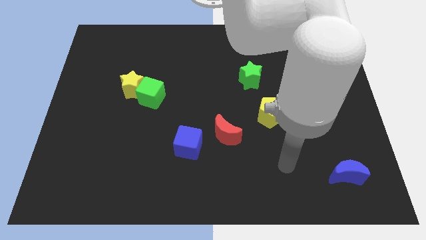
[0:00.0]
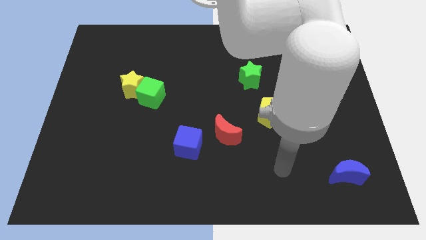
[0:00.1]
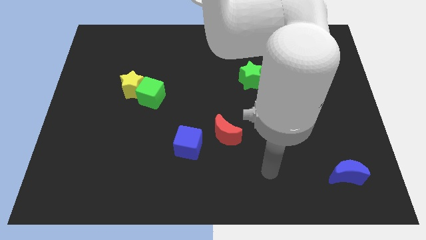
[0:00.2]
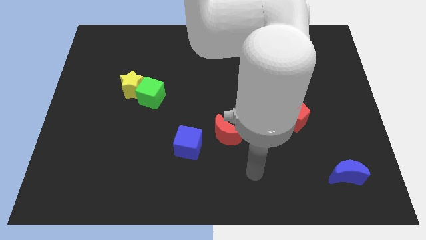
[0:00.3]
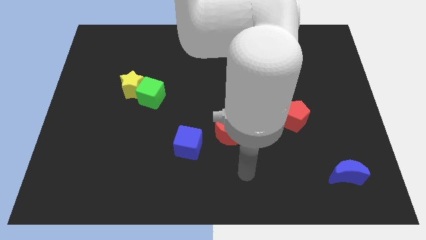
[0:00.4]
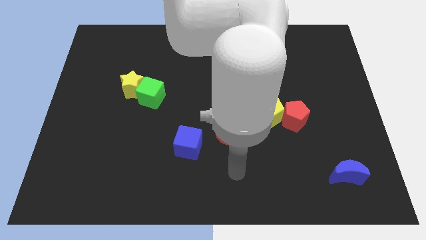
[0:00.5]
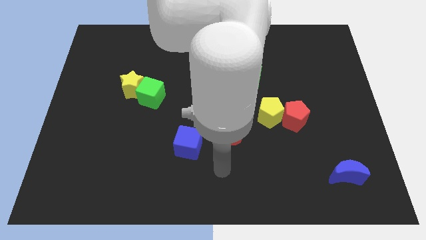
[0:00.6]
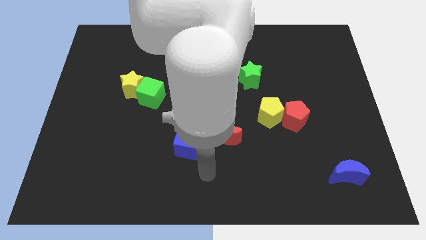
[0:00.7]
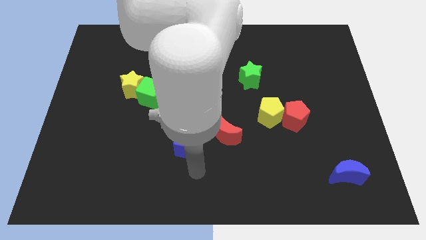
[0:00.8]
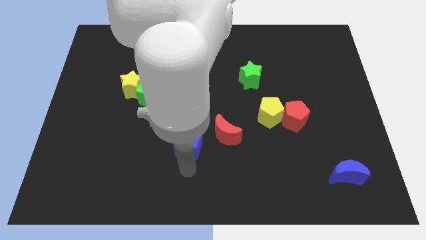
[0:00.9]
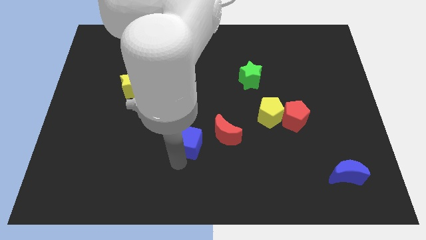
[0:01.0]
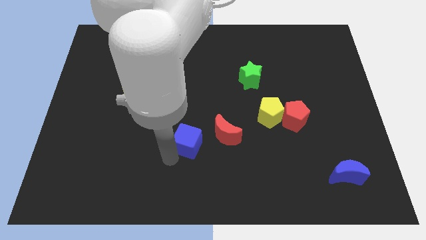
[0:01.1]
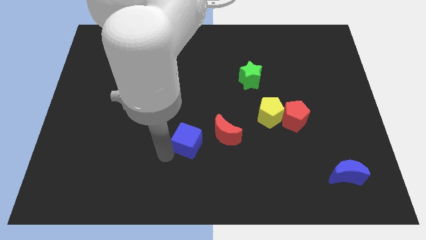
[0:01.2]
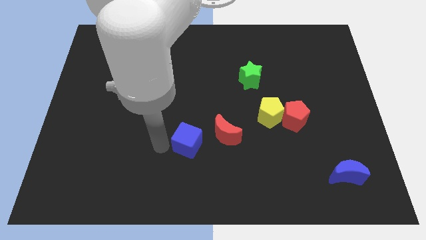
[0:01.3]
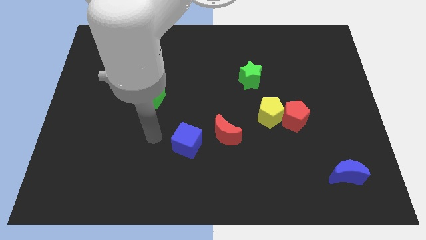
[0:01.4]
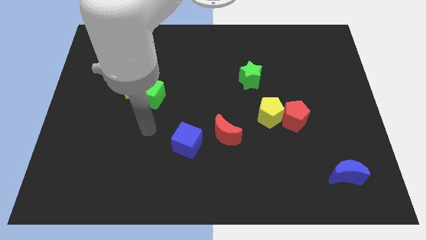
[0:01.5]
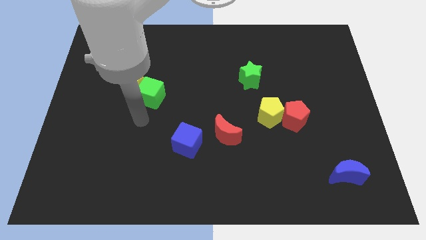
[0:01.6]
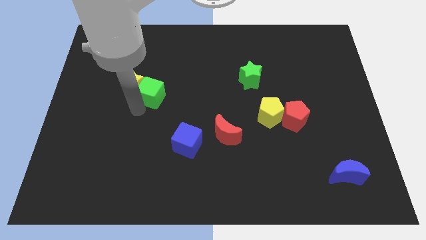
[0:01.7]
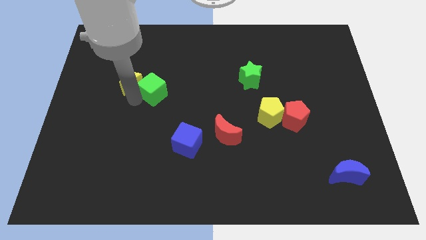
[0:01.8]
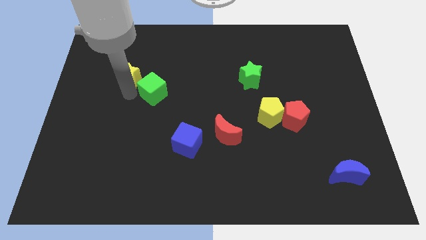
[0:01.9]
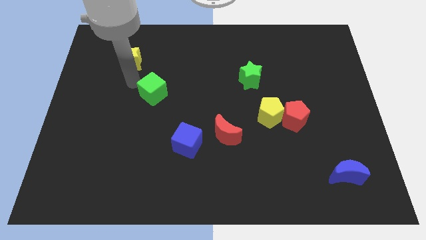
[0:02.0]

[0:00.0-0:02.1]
move the green cube away from the yellow star

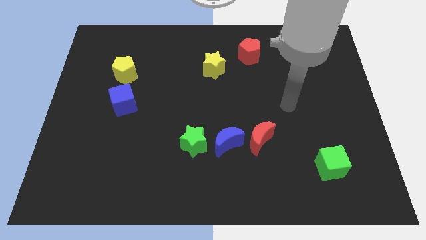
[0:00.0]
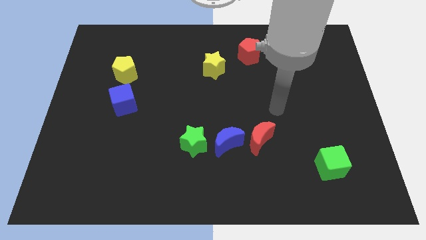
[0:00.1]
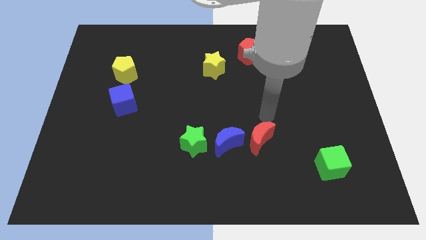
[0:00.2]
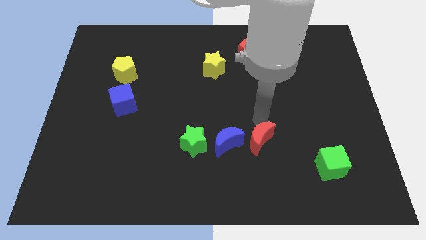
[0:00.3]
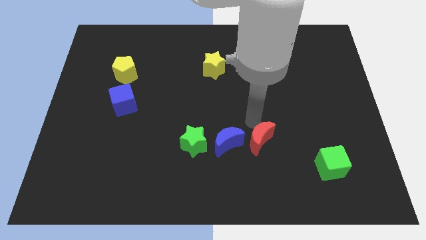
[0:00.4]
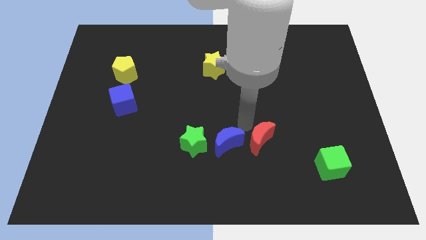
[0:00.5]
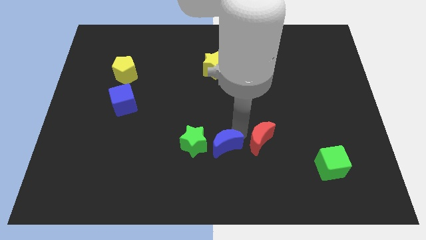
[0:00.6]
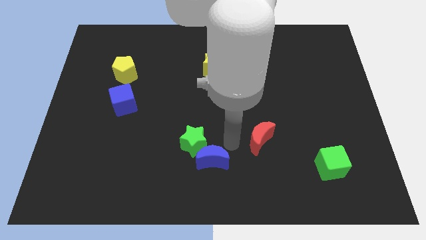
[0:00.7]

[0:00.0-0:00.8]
pull the red moon apart from the blue moon

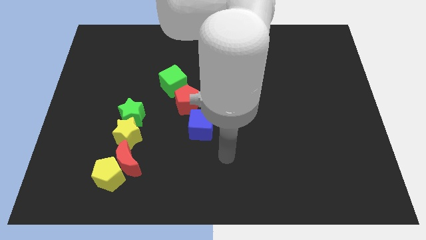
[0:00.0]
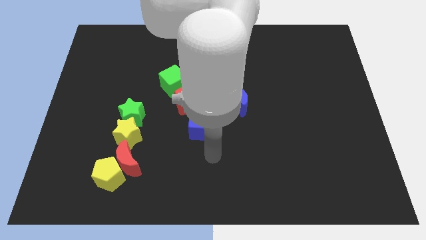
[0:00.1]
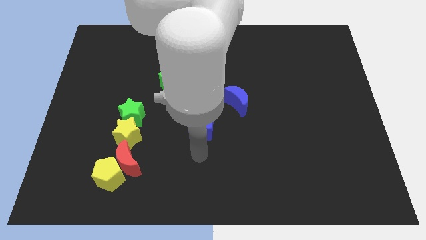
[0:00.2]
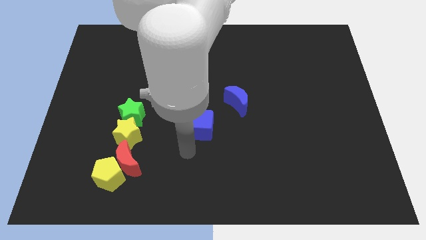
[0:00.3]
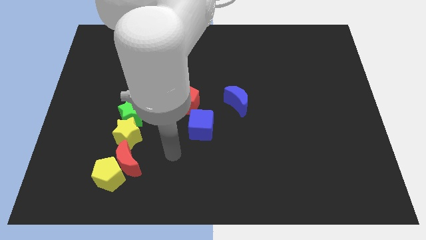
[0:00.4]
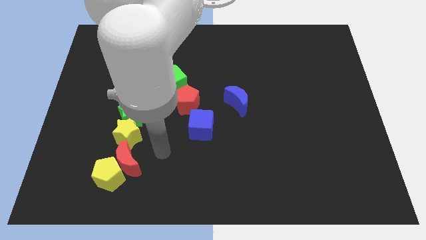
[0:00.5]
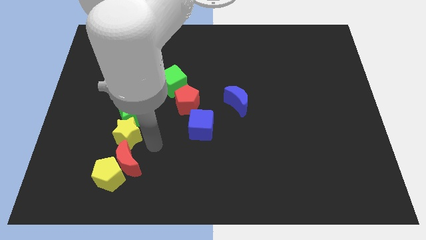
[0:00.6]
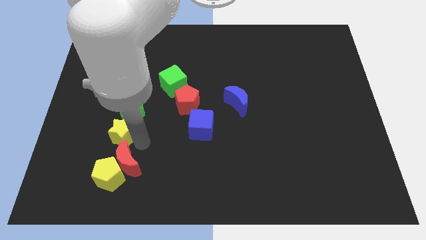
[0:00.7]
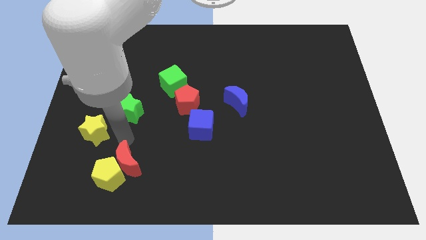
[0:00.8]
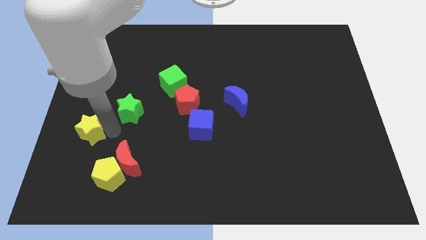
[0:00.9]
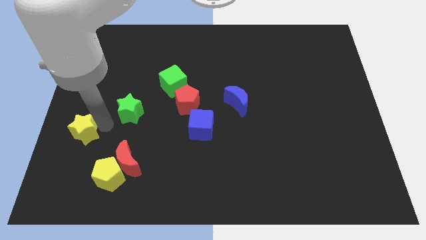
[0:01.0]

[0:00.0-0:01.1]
separate the green star from the yellow star

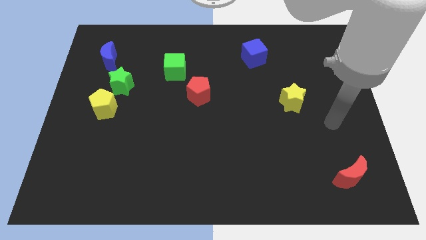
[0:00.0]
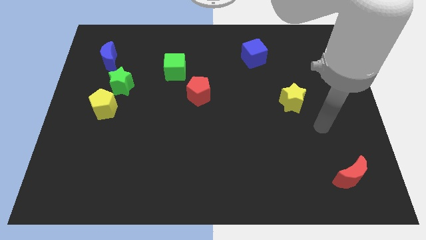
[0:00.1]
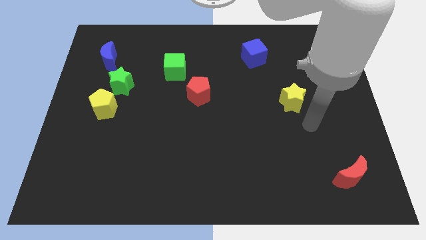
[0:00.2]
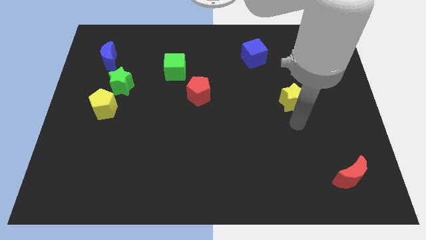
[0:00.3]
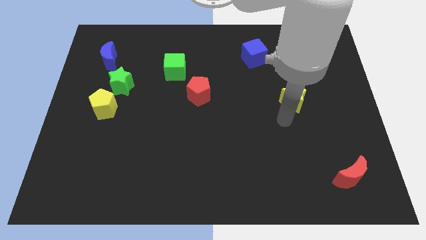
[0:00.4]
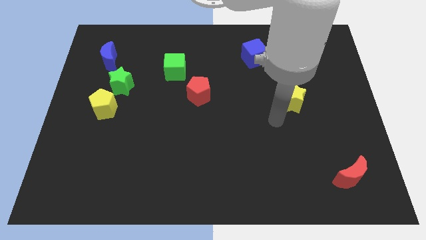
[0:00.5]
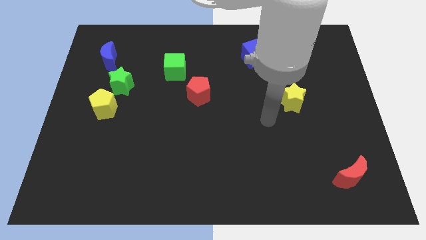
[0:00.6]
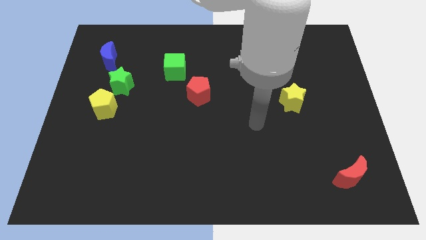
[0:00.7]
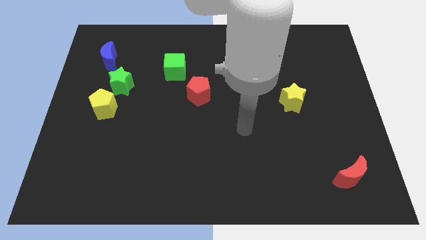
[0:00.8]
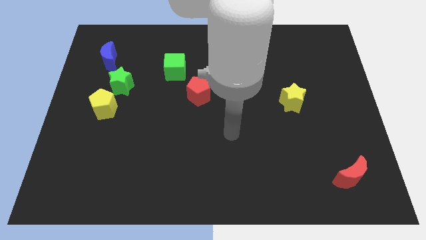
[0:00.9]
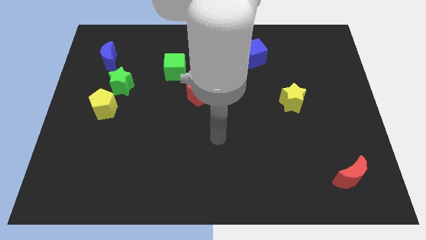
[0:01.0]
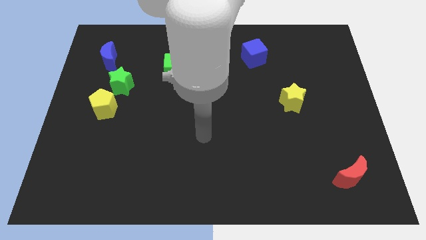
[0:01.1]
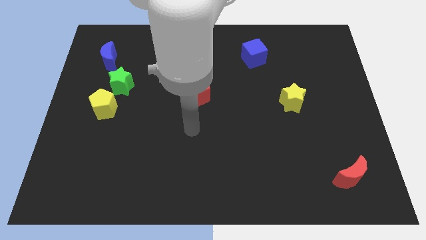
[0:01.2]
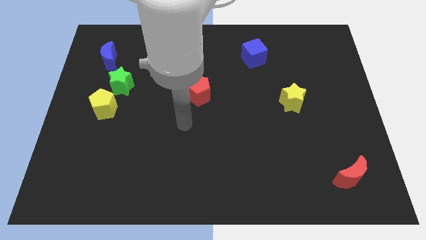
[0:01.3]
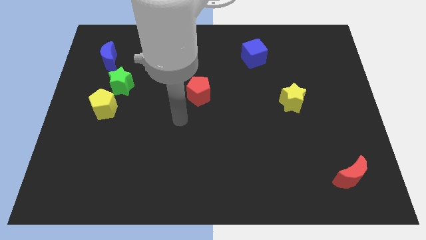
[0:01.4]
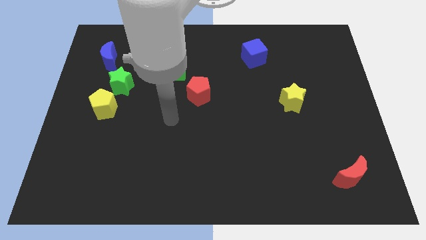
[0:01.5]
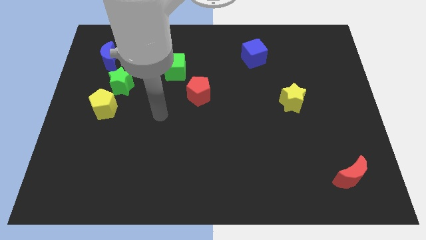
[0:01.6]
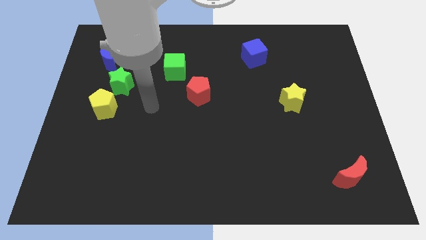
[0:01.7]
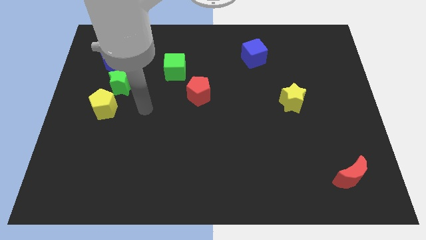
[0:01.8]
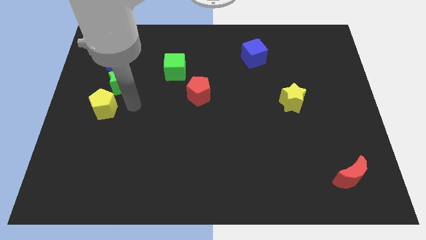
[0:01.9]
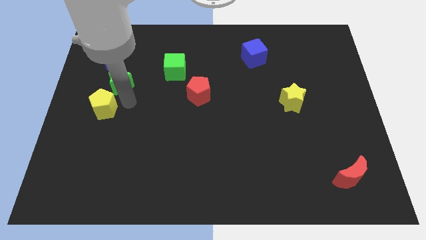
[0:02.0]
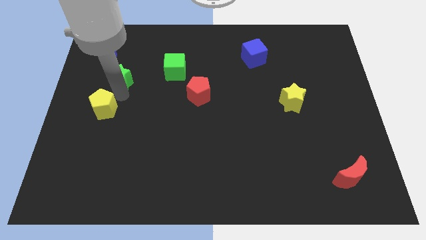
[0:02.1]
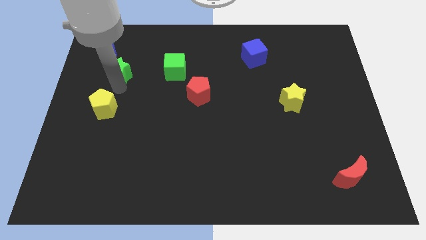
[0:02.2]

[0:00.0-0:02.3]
move the yellow pentagon away from the green star

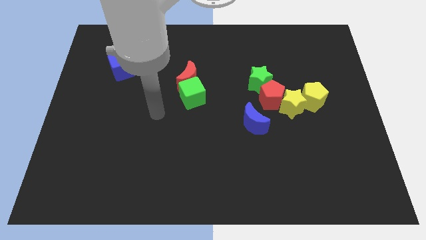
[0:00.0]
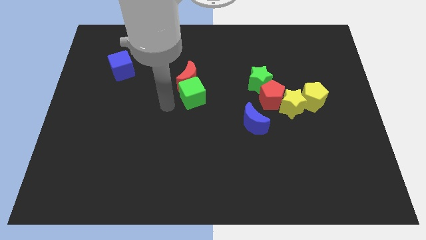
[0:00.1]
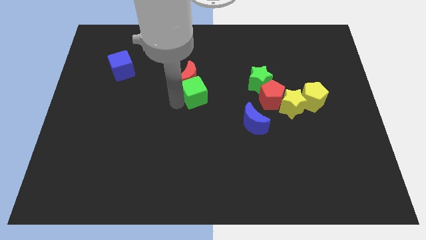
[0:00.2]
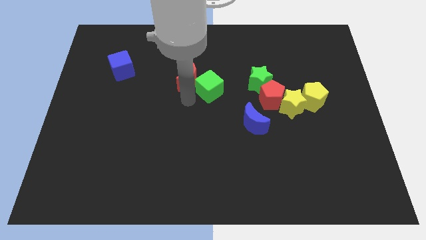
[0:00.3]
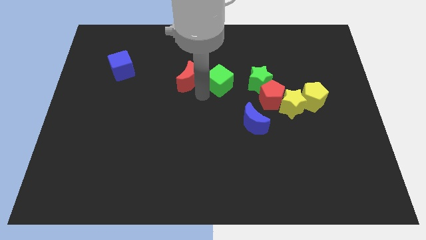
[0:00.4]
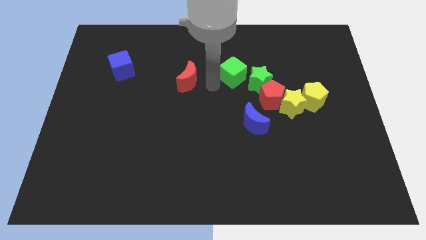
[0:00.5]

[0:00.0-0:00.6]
separate the red moon from the green cube

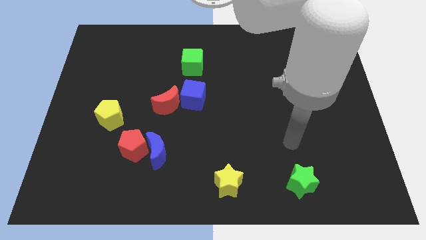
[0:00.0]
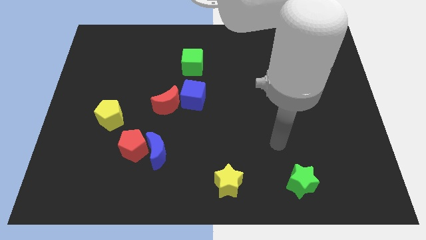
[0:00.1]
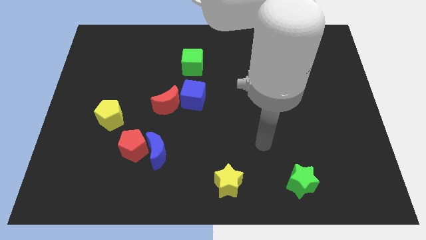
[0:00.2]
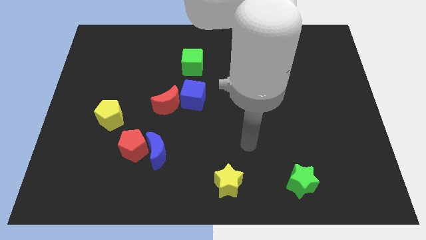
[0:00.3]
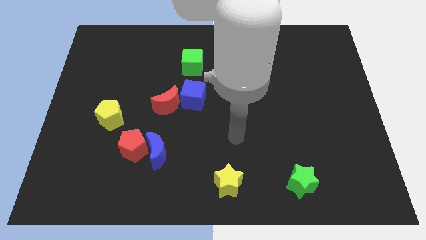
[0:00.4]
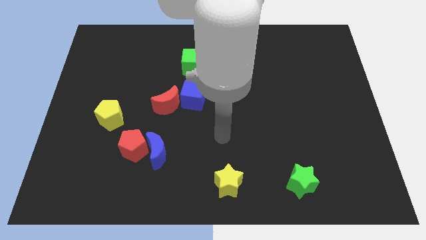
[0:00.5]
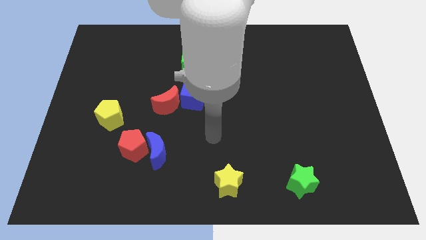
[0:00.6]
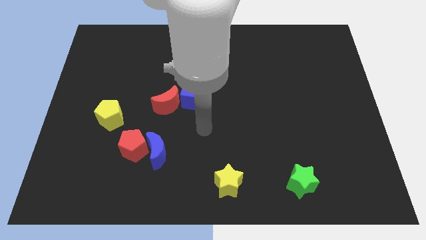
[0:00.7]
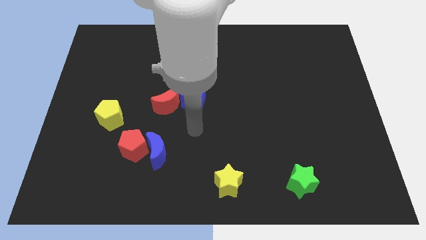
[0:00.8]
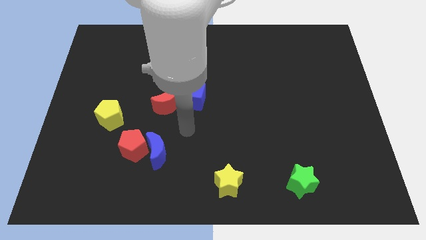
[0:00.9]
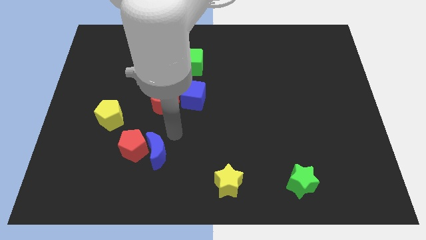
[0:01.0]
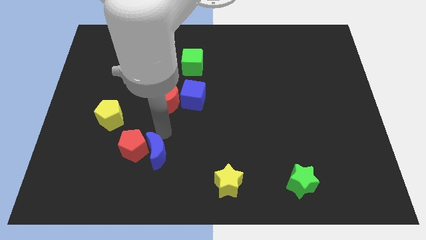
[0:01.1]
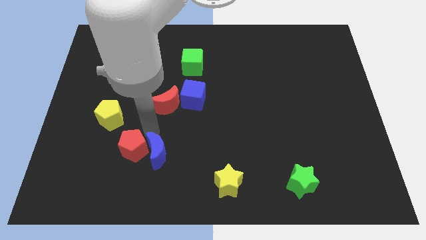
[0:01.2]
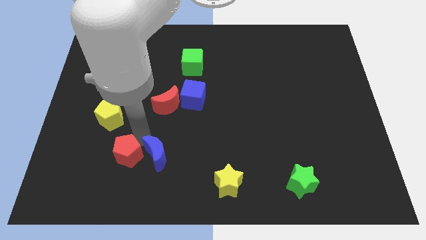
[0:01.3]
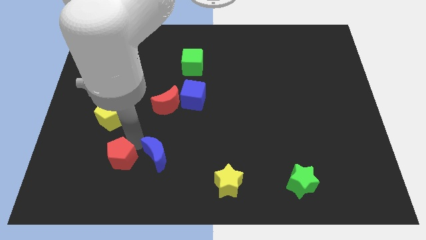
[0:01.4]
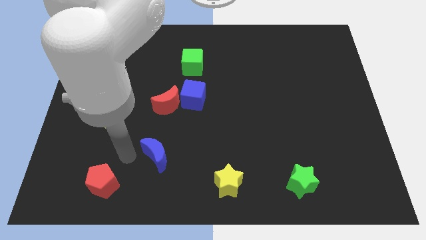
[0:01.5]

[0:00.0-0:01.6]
separate the blue moon from the red pentagon

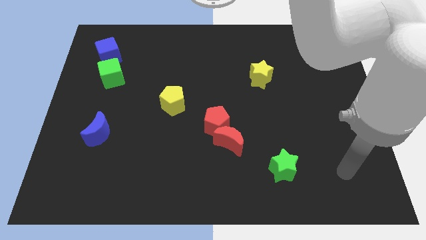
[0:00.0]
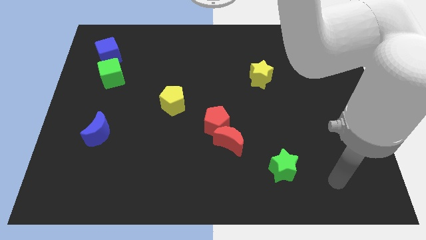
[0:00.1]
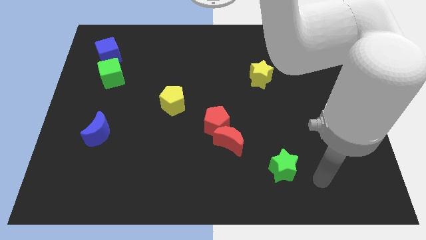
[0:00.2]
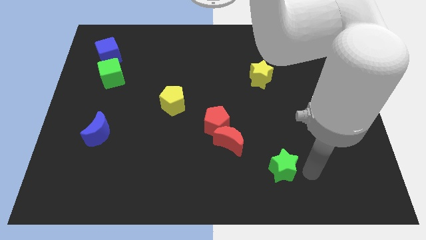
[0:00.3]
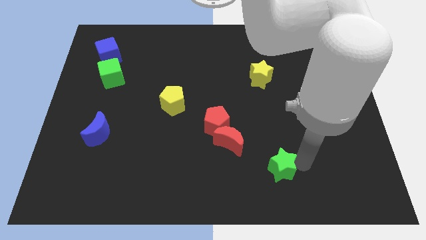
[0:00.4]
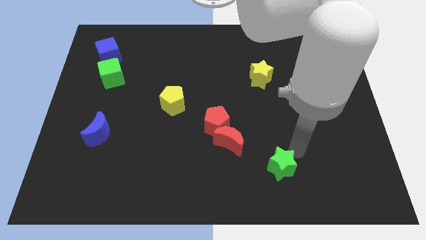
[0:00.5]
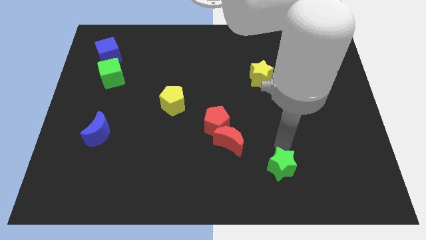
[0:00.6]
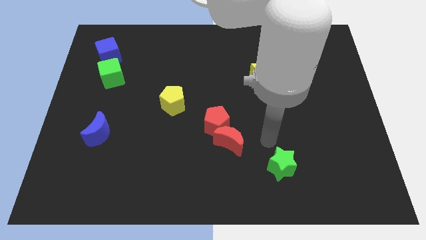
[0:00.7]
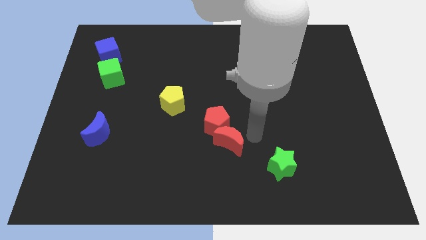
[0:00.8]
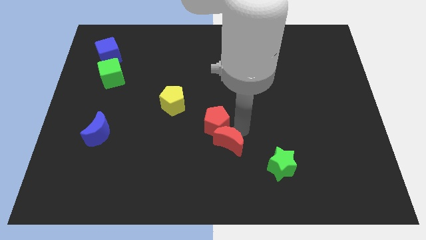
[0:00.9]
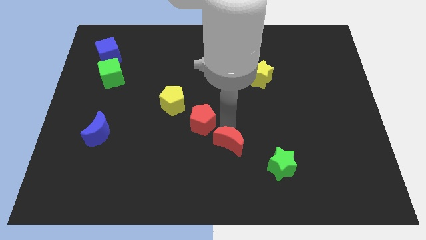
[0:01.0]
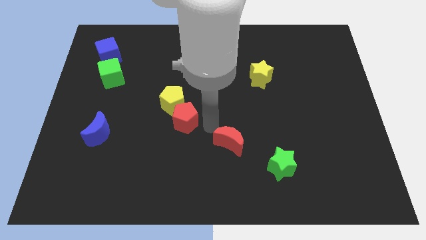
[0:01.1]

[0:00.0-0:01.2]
separate the red moon from the red pentagon
